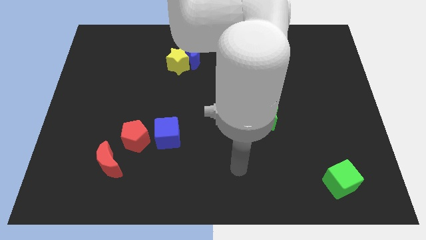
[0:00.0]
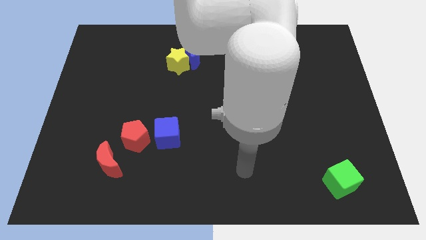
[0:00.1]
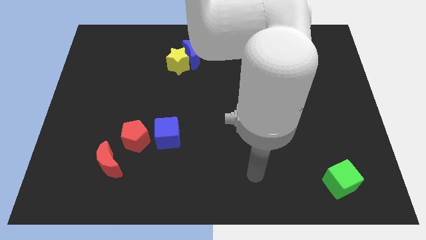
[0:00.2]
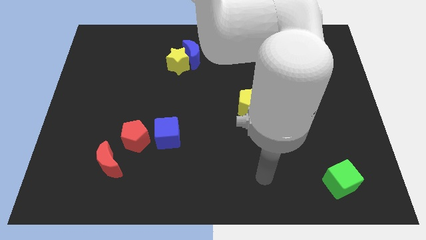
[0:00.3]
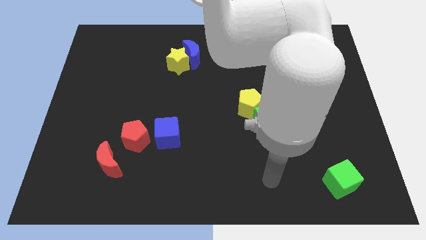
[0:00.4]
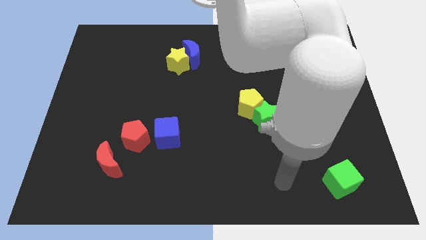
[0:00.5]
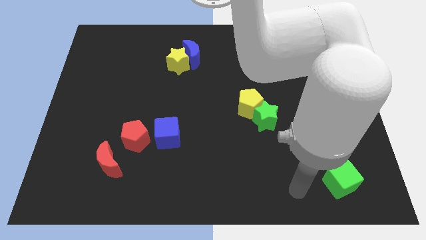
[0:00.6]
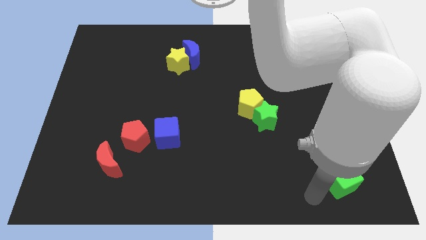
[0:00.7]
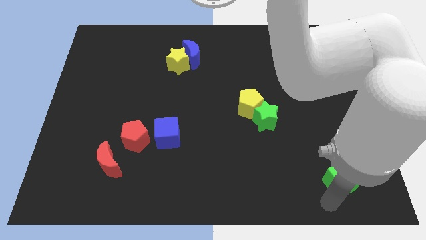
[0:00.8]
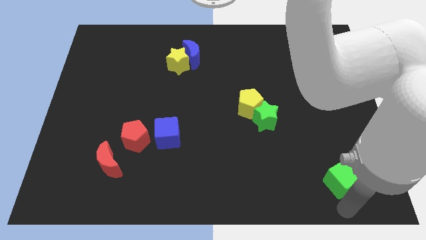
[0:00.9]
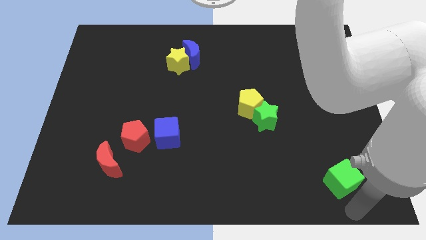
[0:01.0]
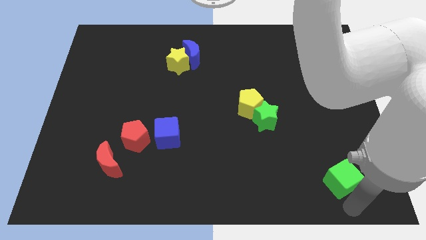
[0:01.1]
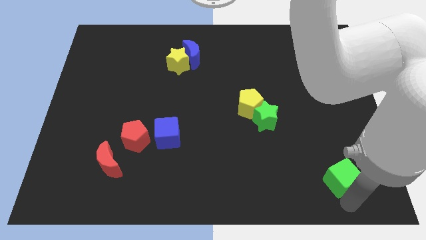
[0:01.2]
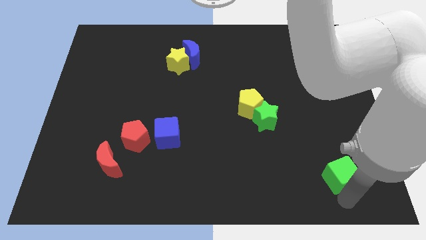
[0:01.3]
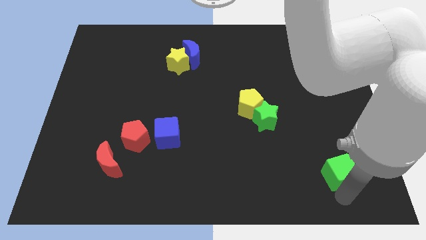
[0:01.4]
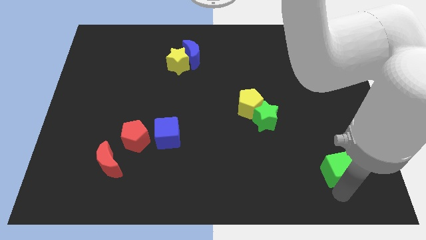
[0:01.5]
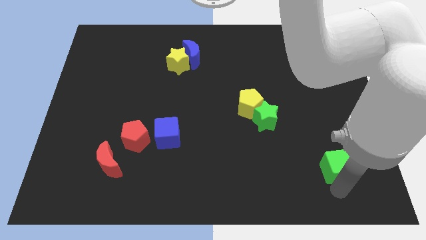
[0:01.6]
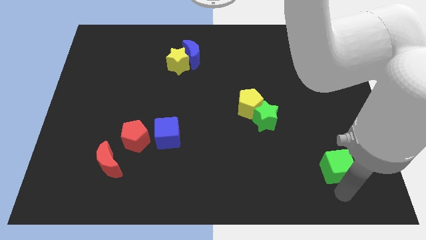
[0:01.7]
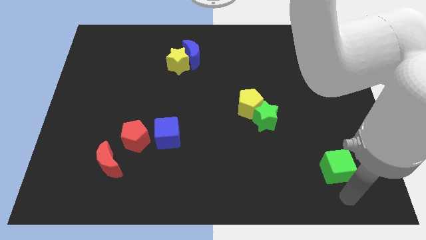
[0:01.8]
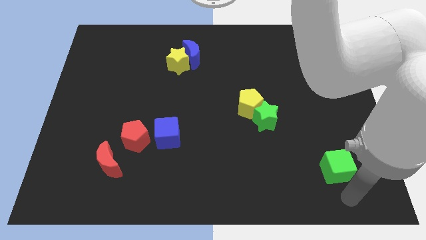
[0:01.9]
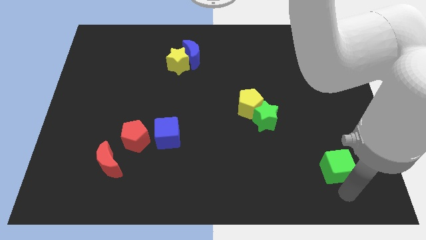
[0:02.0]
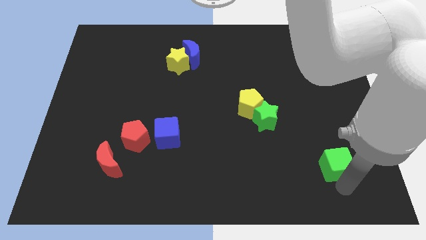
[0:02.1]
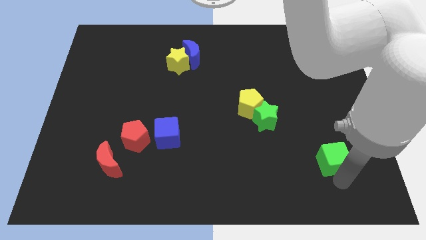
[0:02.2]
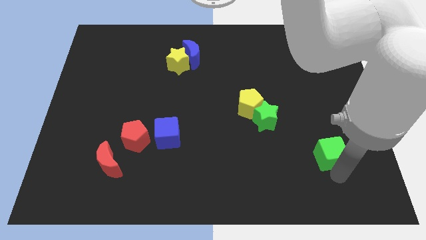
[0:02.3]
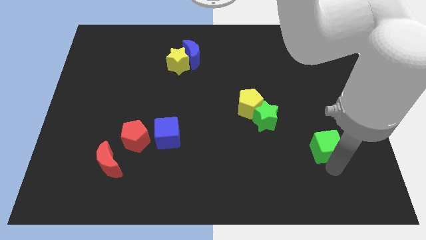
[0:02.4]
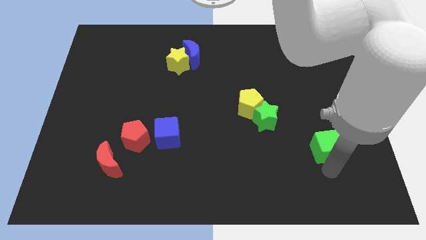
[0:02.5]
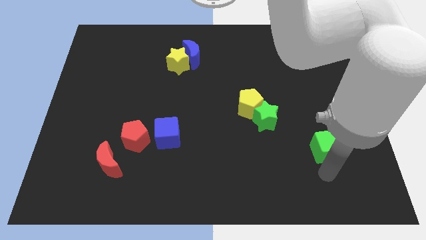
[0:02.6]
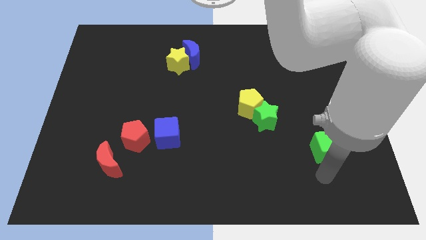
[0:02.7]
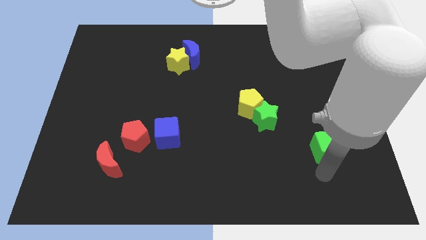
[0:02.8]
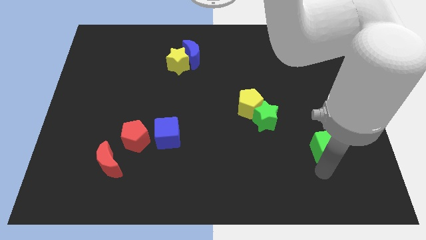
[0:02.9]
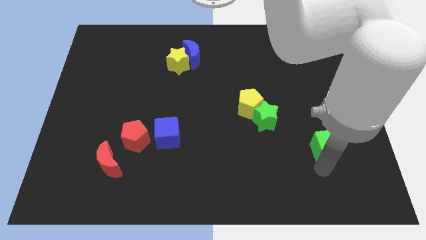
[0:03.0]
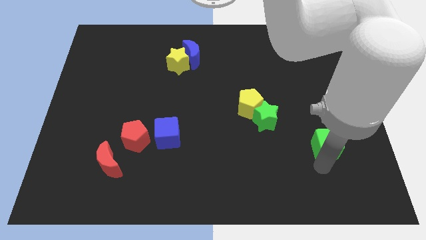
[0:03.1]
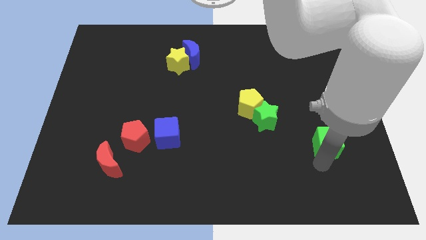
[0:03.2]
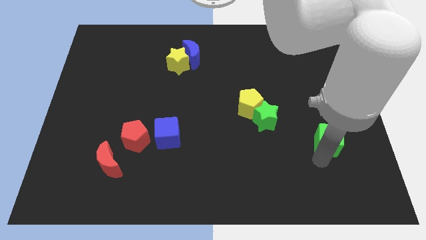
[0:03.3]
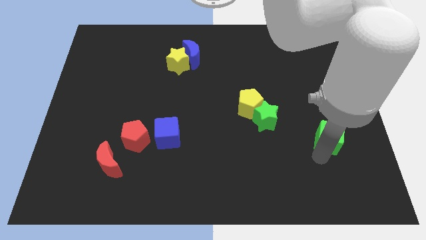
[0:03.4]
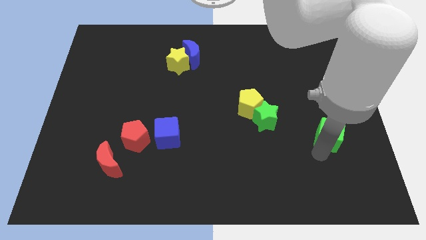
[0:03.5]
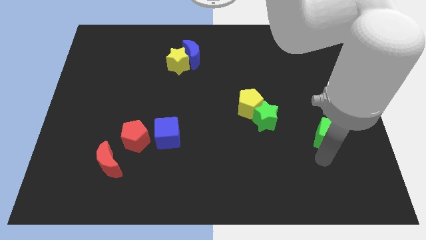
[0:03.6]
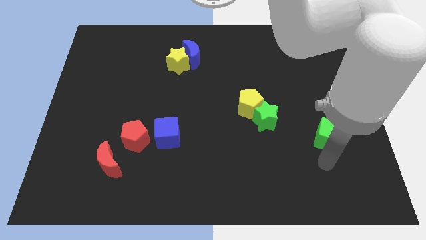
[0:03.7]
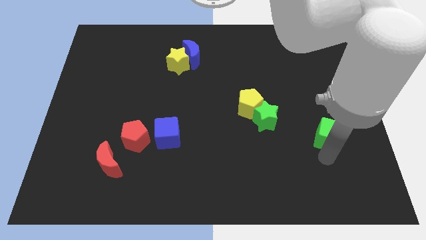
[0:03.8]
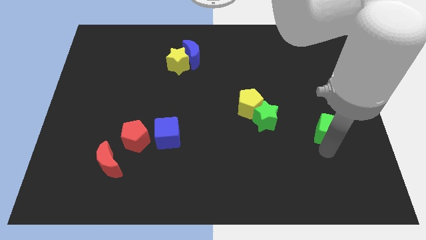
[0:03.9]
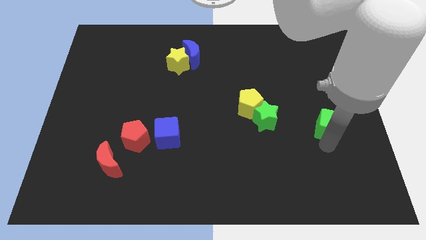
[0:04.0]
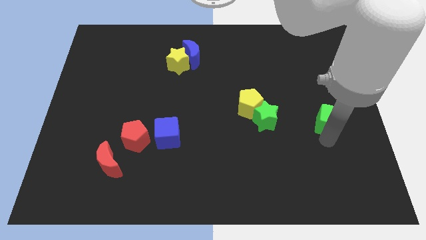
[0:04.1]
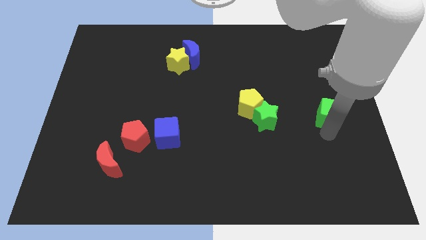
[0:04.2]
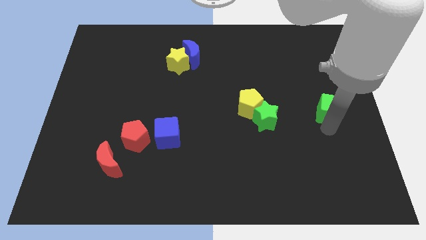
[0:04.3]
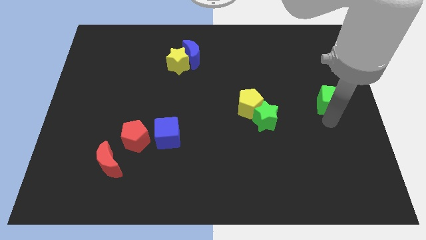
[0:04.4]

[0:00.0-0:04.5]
move the green cube up

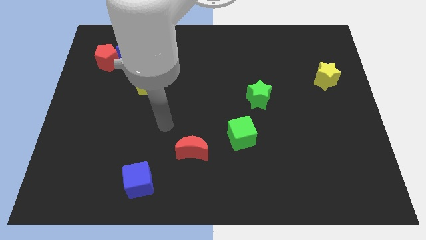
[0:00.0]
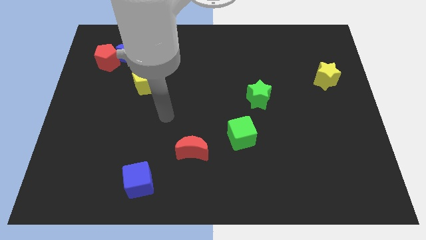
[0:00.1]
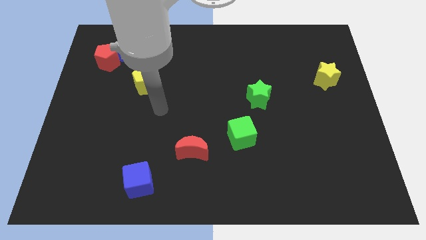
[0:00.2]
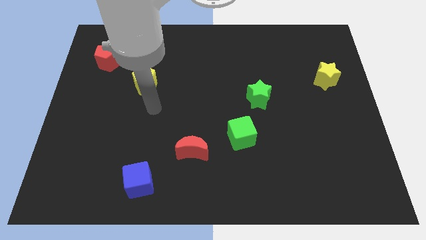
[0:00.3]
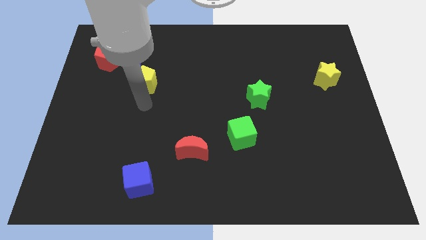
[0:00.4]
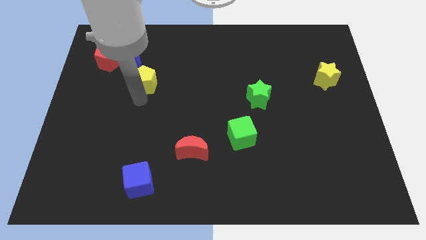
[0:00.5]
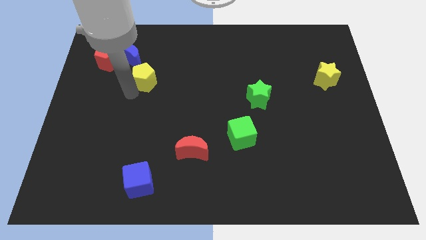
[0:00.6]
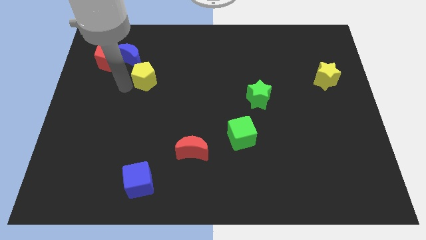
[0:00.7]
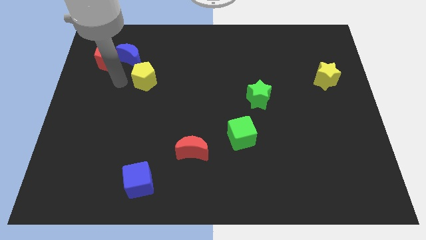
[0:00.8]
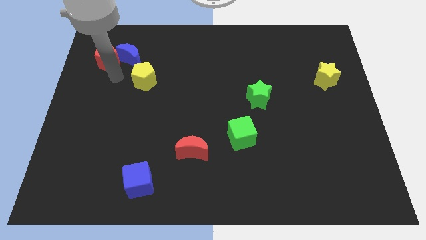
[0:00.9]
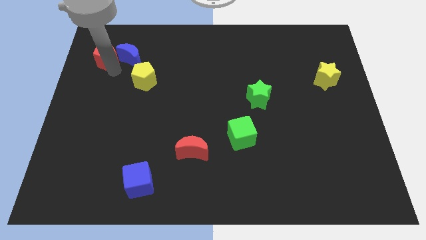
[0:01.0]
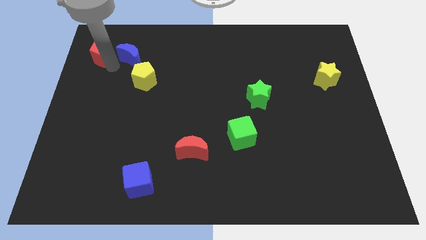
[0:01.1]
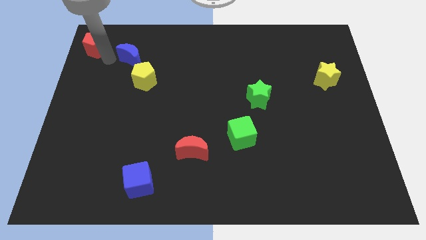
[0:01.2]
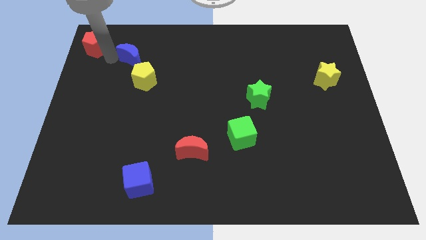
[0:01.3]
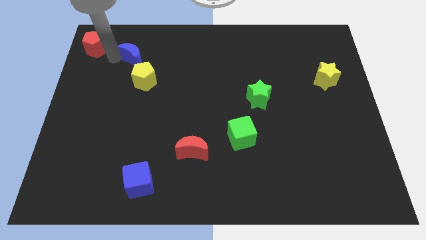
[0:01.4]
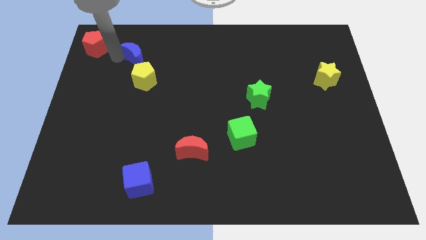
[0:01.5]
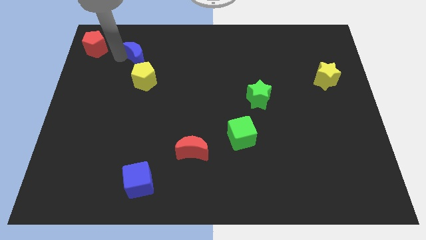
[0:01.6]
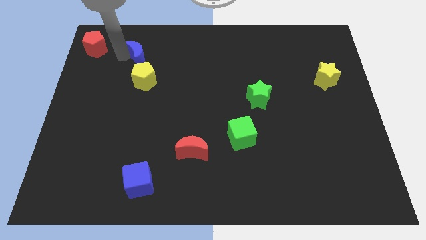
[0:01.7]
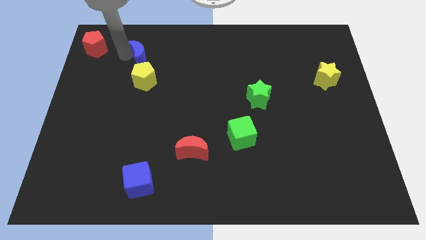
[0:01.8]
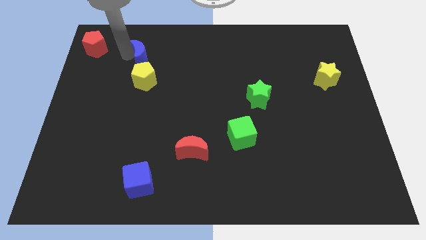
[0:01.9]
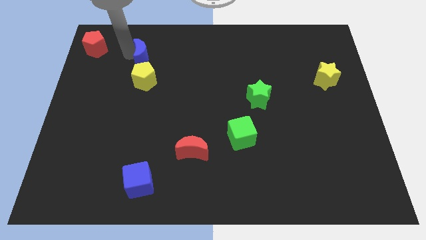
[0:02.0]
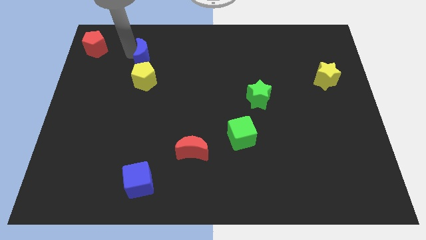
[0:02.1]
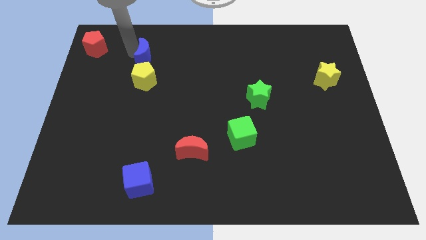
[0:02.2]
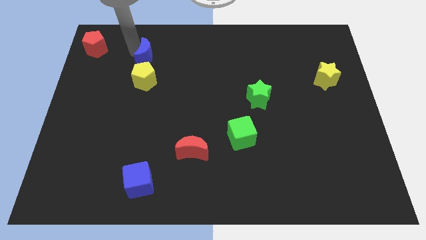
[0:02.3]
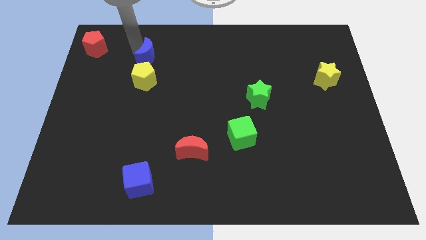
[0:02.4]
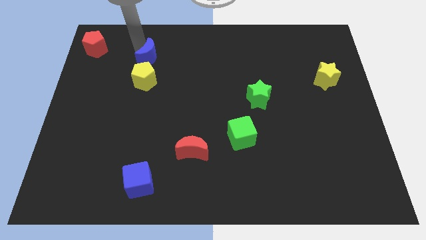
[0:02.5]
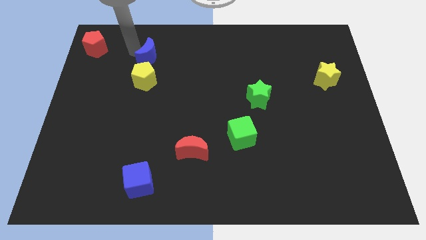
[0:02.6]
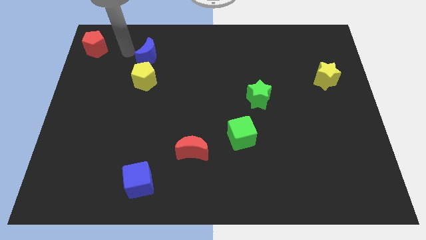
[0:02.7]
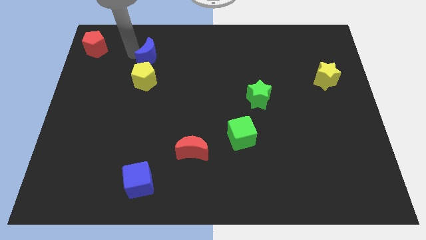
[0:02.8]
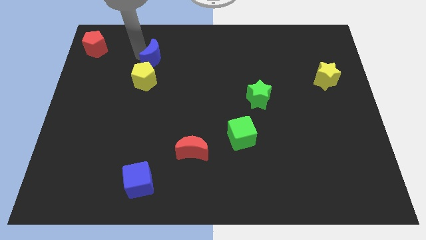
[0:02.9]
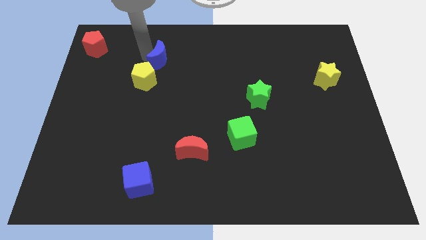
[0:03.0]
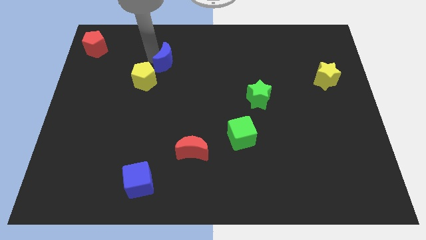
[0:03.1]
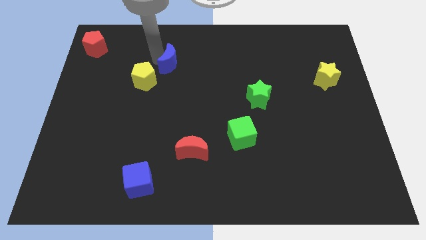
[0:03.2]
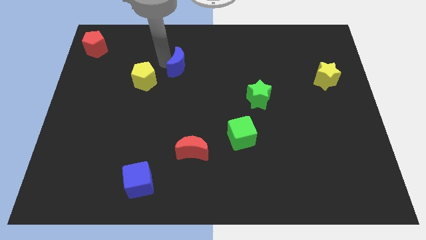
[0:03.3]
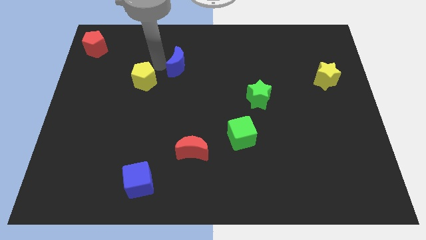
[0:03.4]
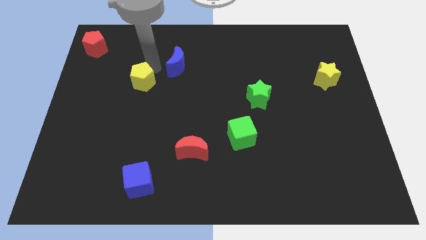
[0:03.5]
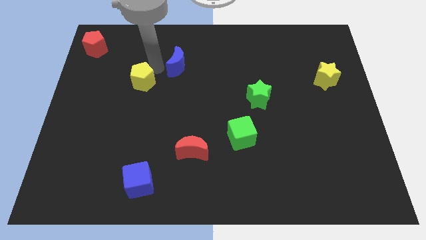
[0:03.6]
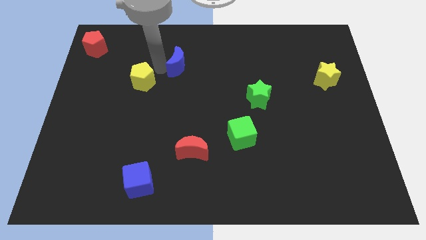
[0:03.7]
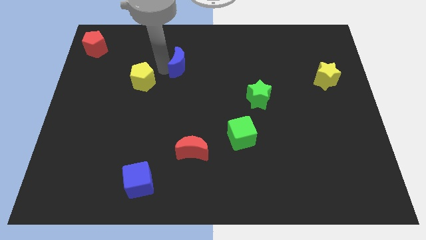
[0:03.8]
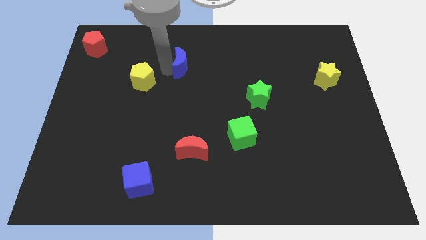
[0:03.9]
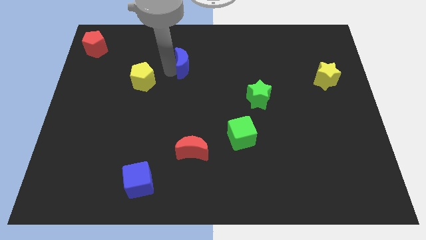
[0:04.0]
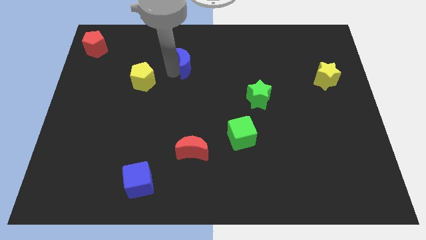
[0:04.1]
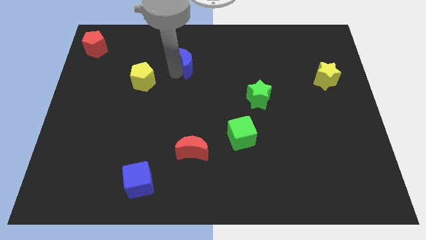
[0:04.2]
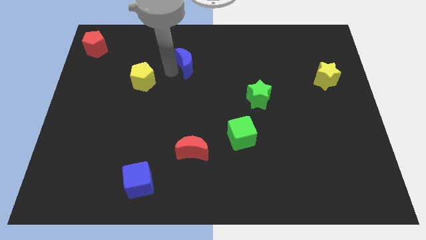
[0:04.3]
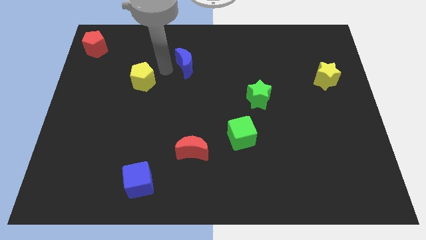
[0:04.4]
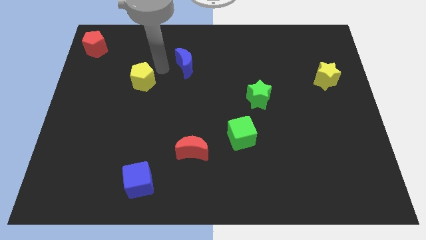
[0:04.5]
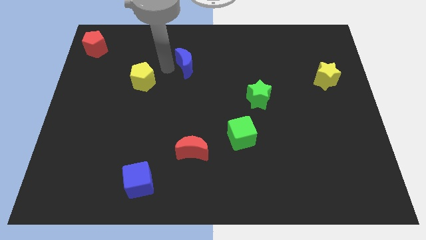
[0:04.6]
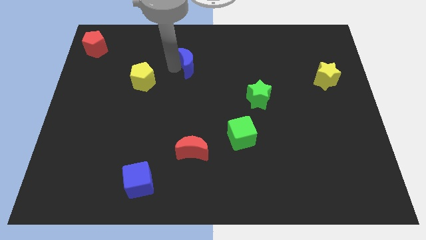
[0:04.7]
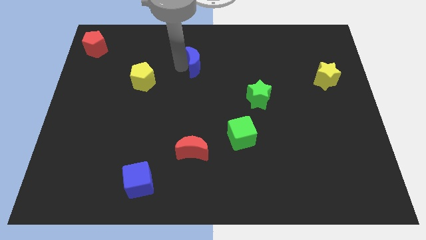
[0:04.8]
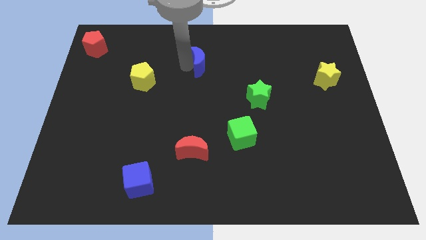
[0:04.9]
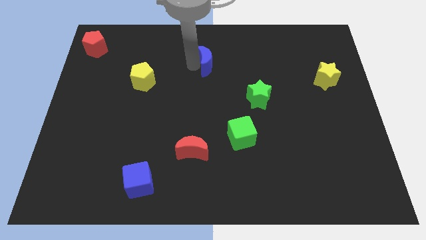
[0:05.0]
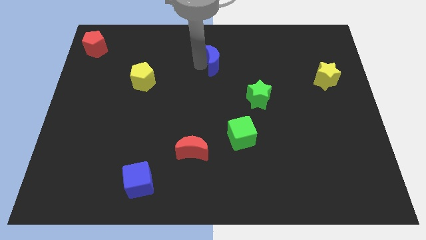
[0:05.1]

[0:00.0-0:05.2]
move the blue moon right
